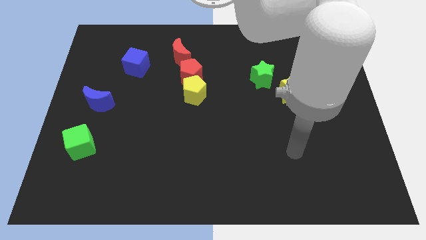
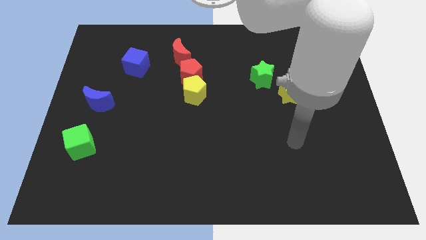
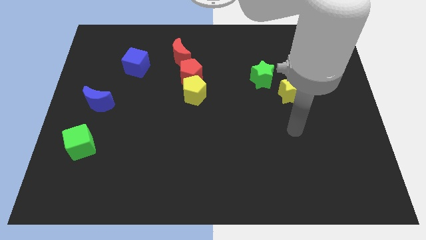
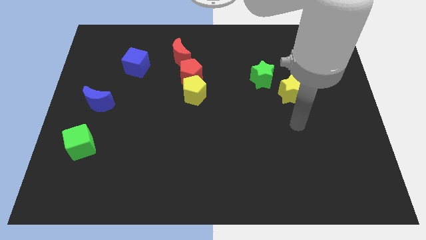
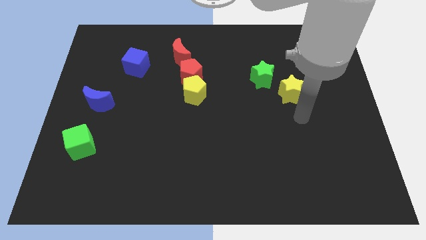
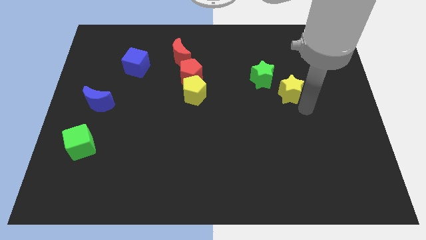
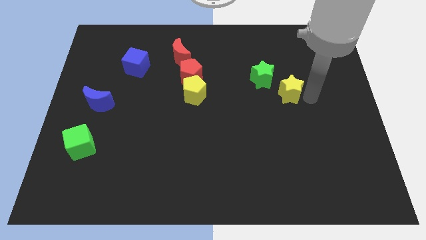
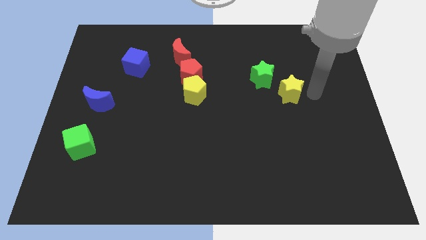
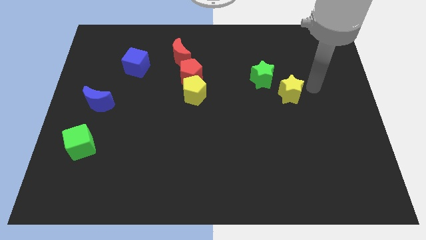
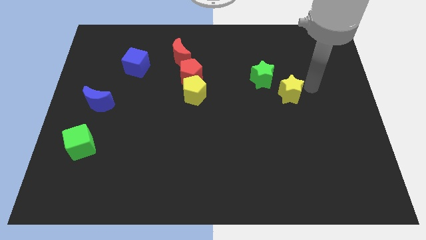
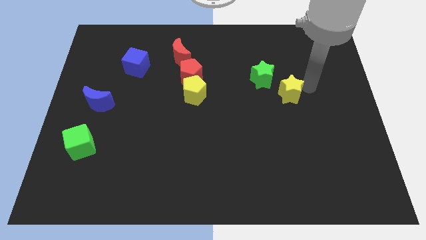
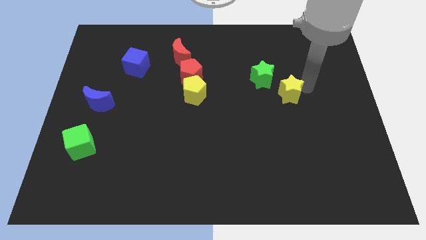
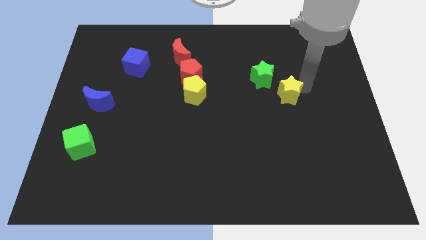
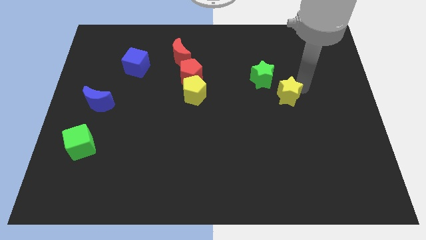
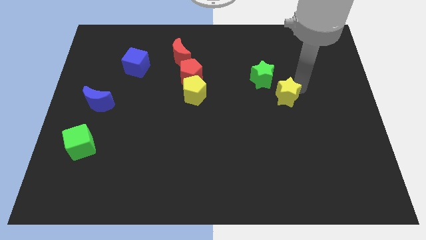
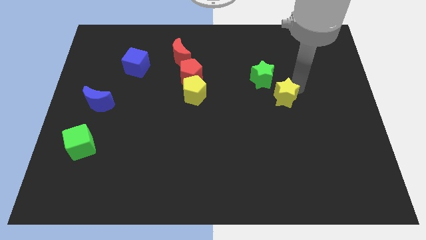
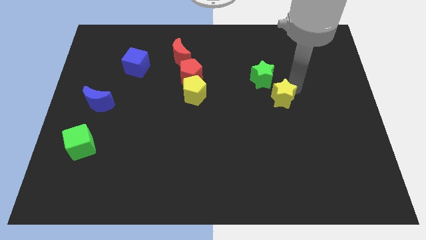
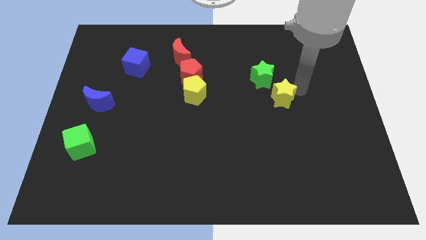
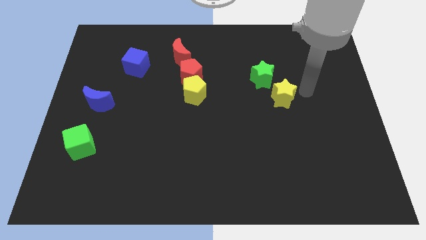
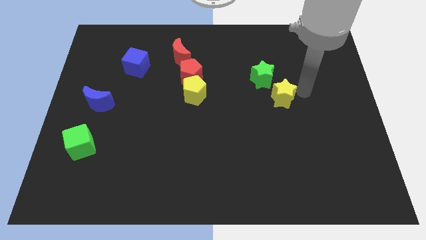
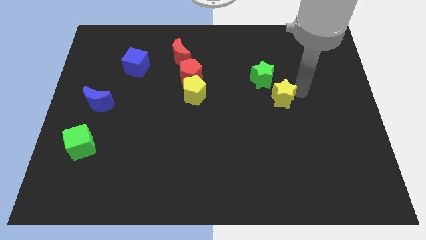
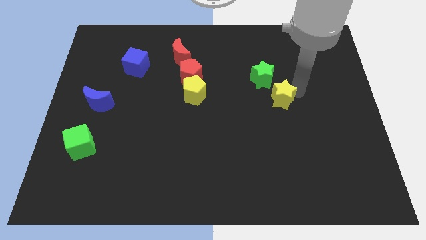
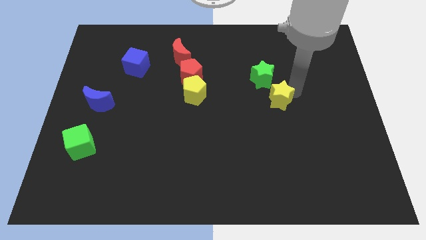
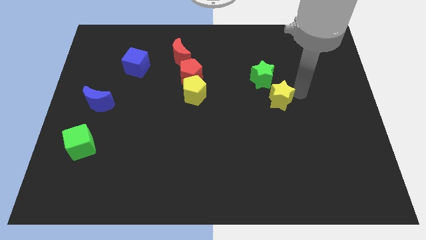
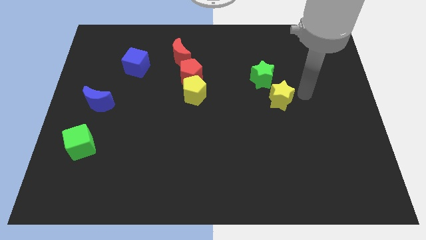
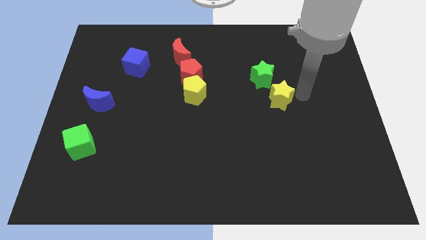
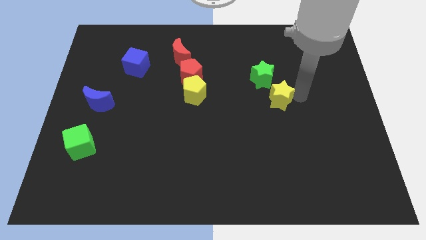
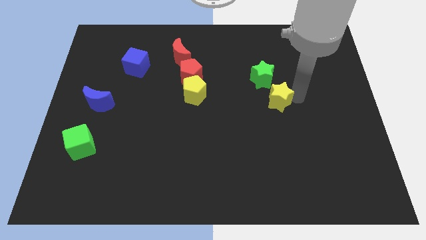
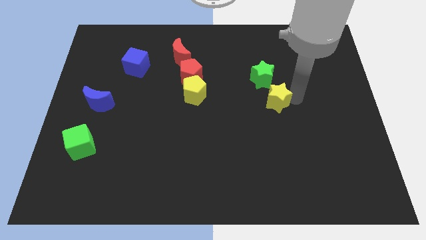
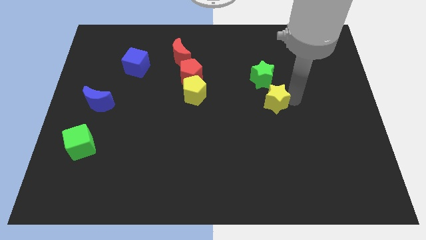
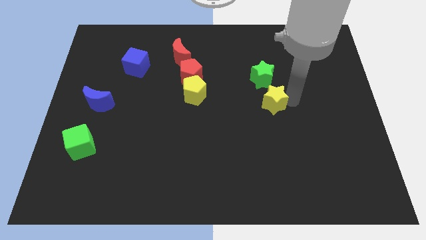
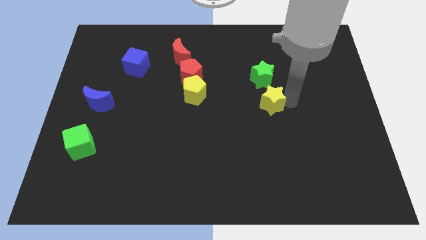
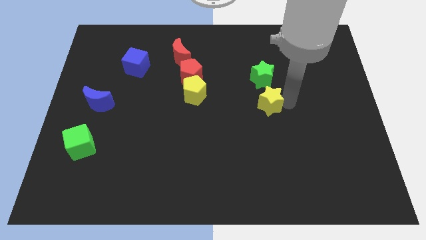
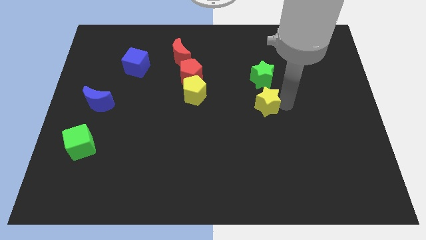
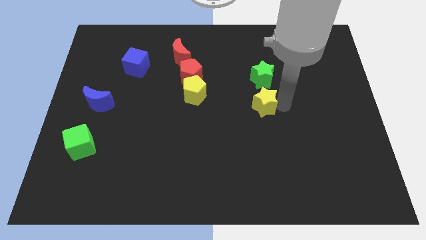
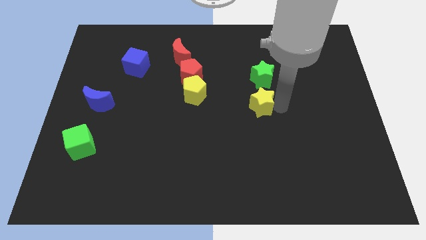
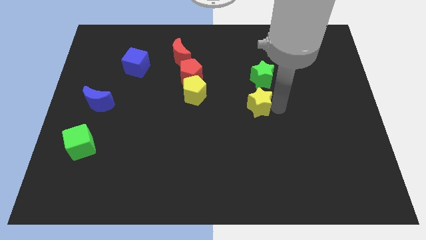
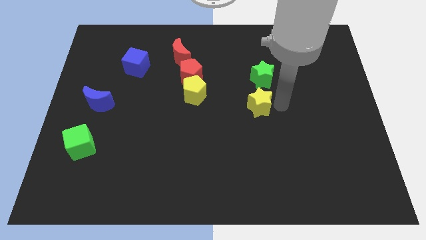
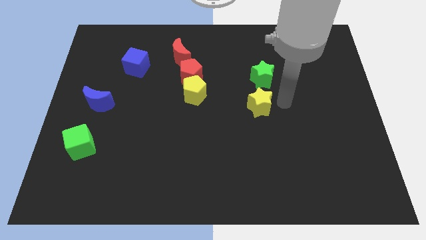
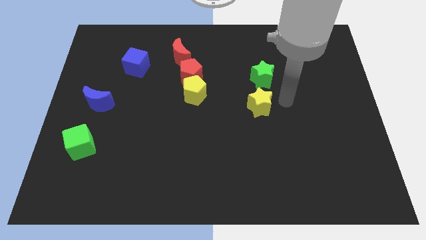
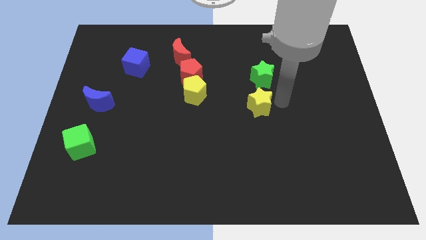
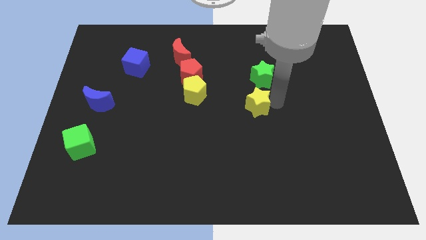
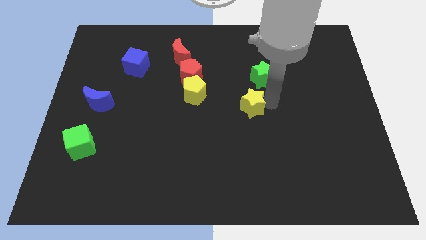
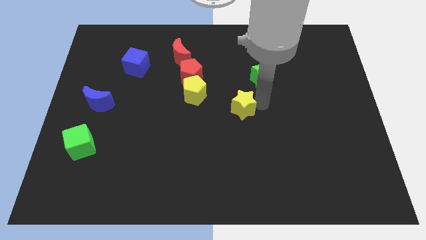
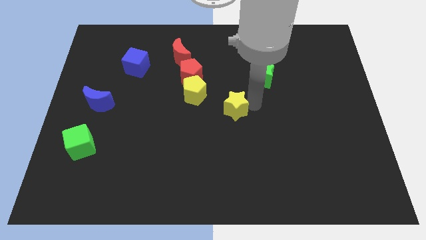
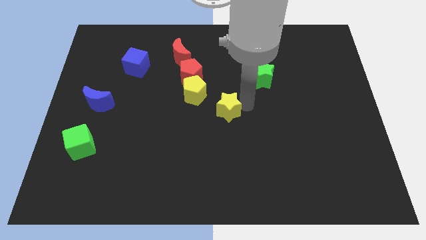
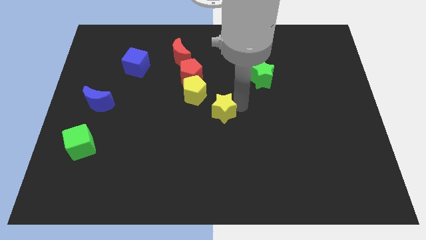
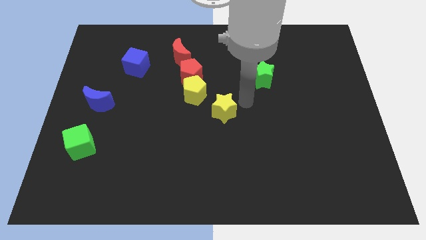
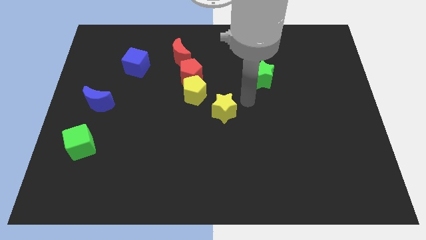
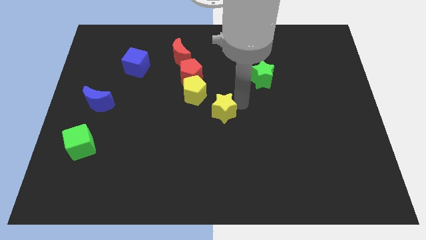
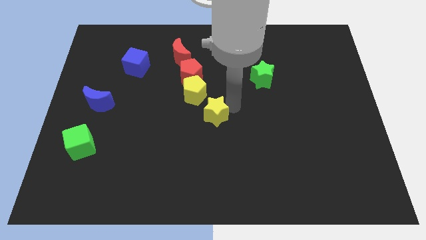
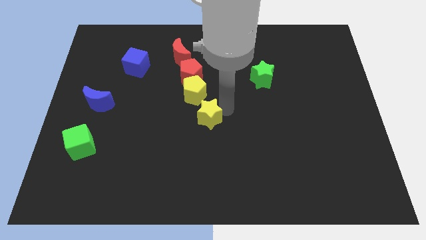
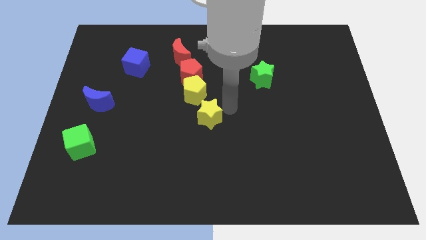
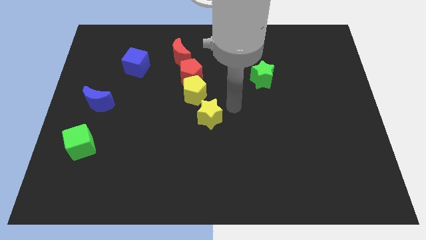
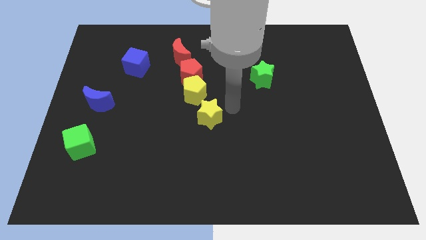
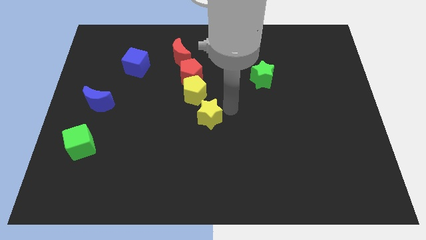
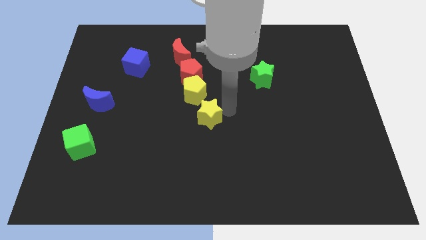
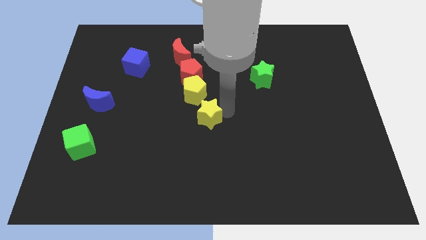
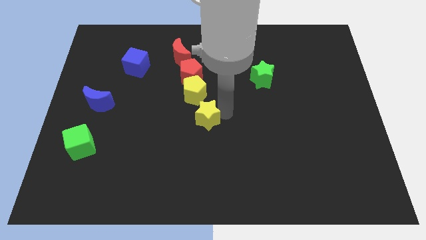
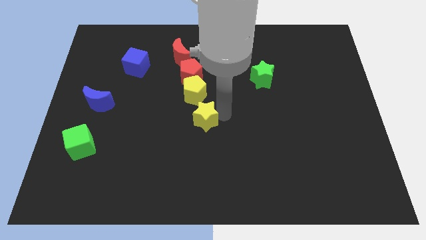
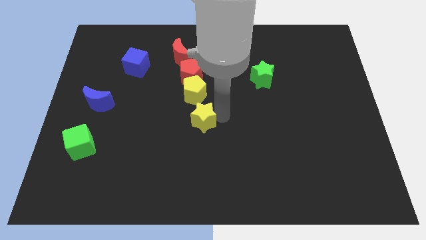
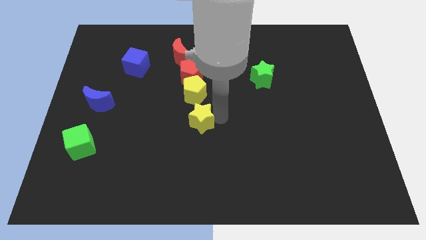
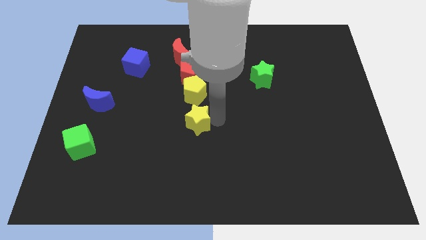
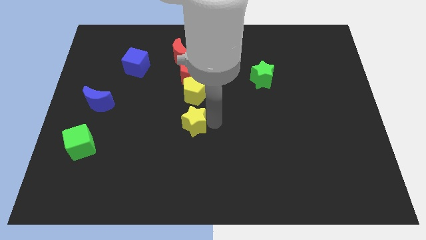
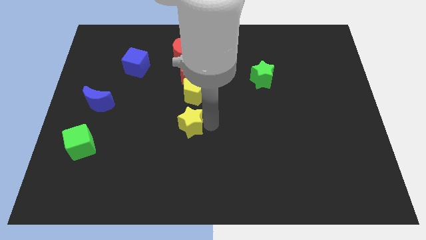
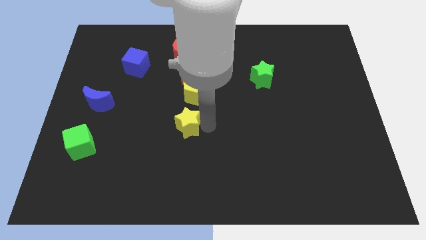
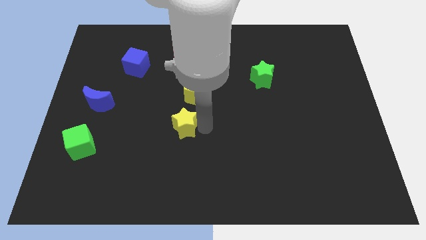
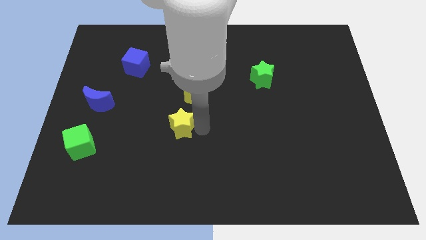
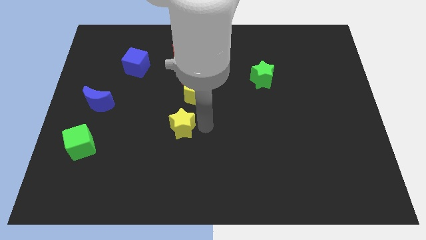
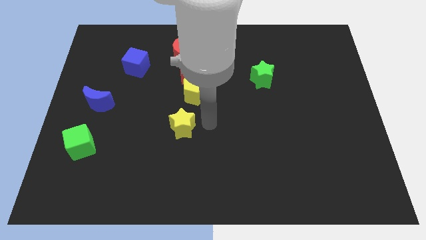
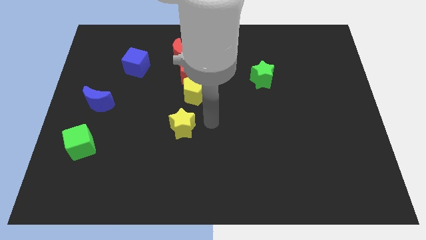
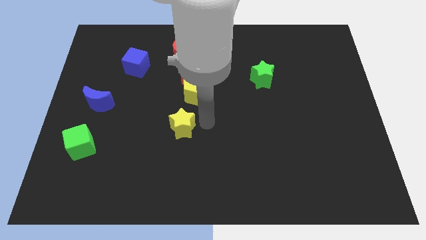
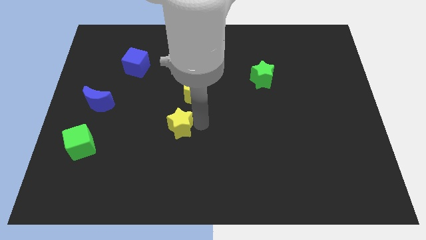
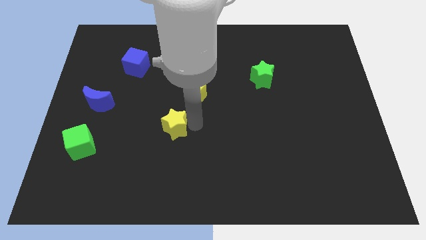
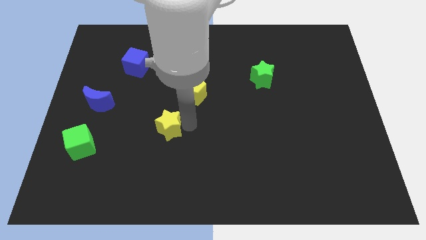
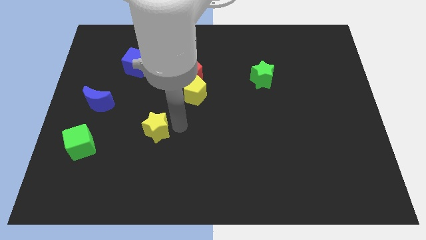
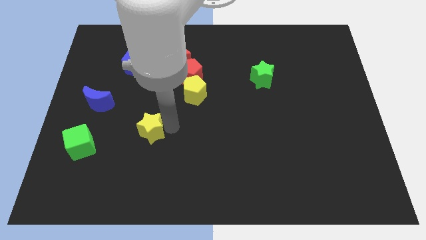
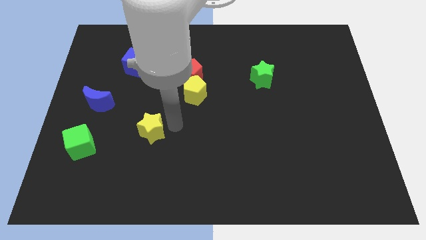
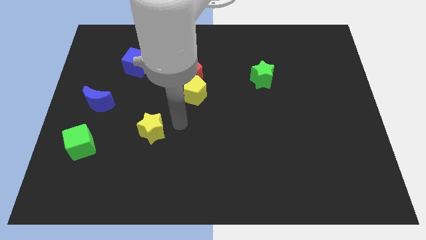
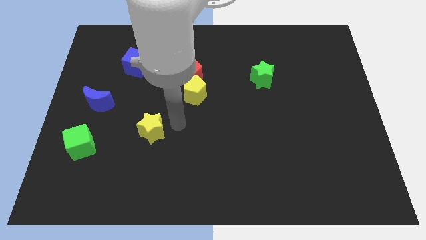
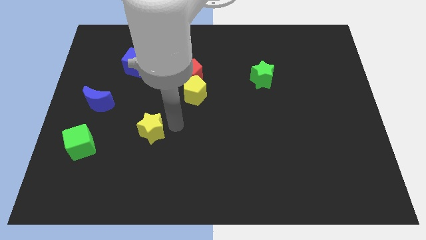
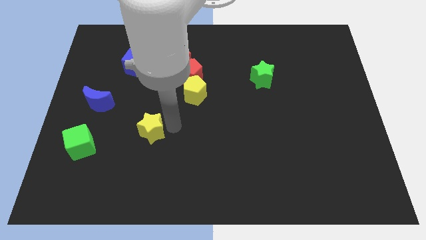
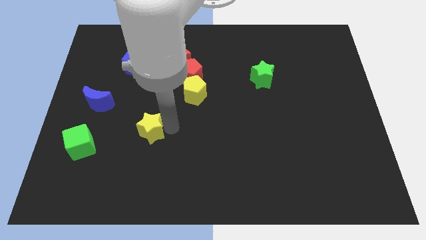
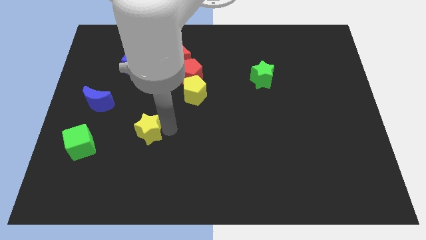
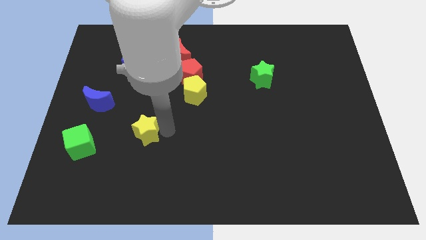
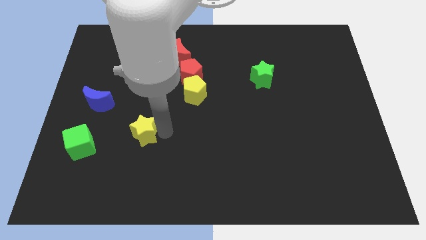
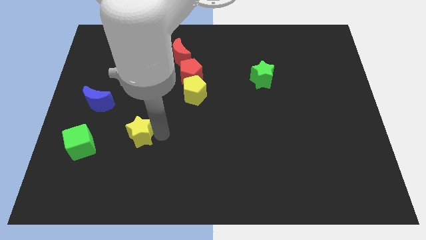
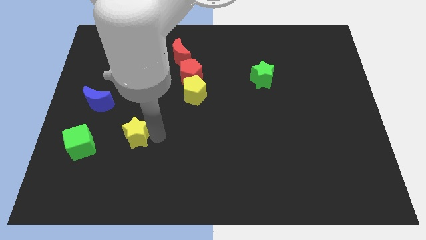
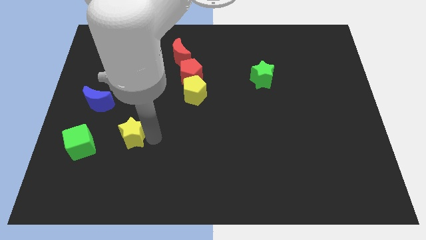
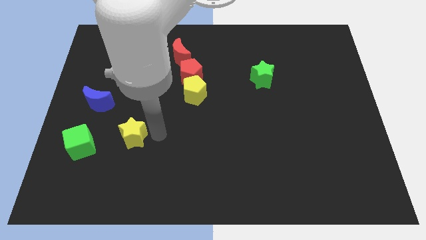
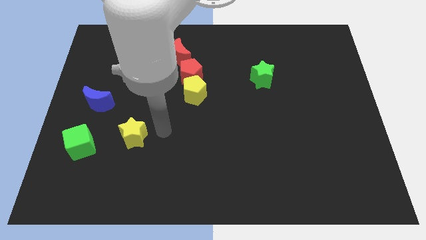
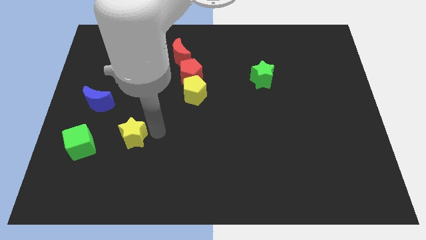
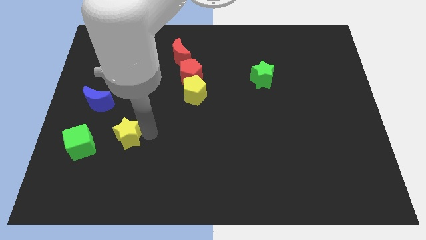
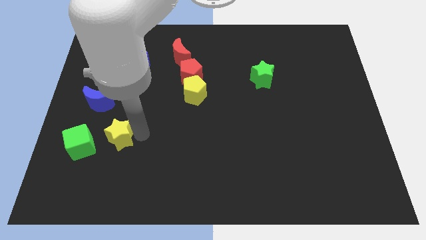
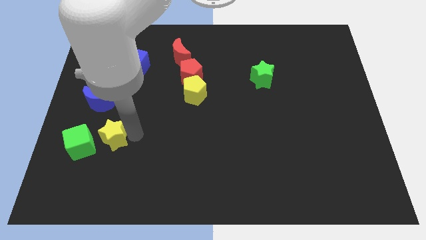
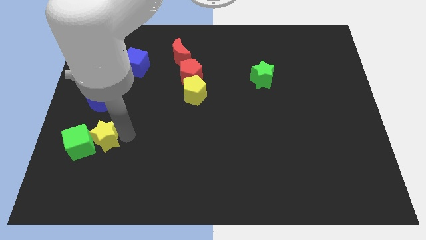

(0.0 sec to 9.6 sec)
move the yellow star next to the green cube
